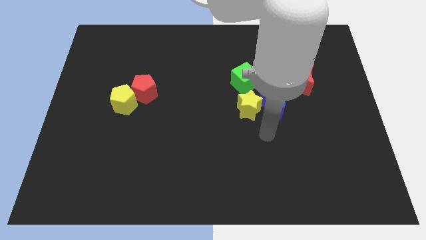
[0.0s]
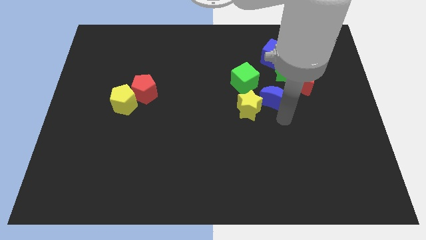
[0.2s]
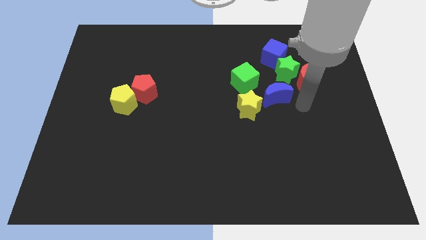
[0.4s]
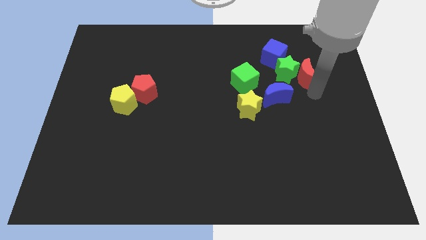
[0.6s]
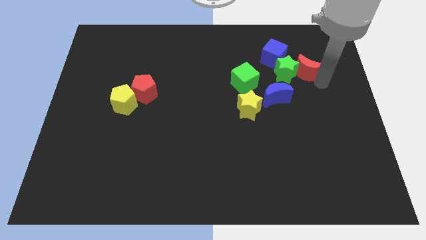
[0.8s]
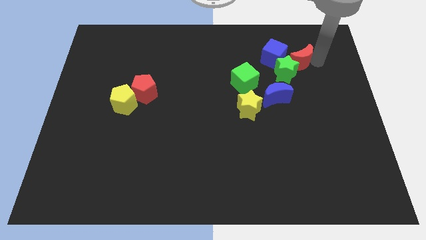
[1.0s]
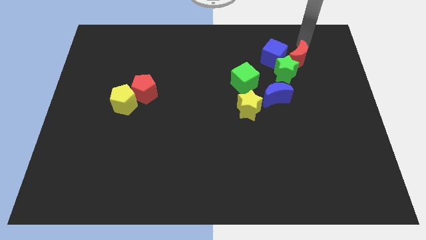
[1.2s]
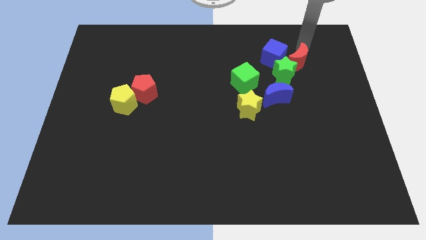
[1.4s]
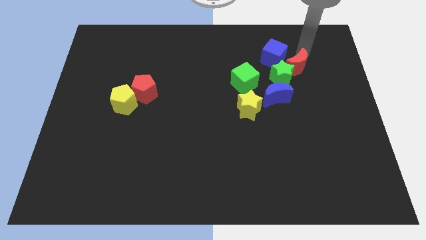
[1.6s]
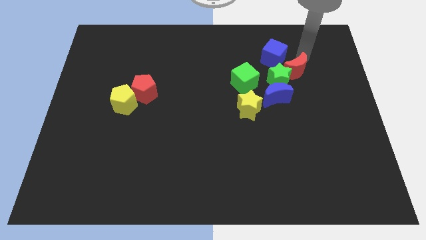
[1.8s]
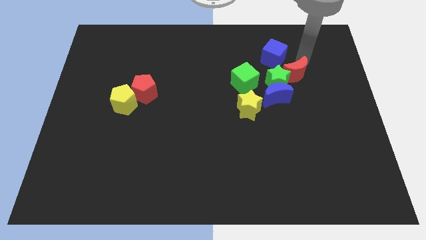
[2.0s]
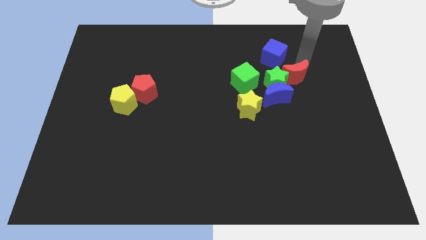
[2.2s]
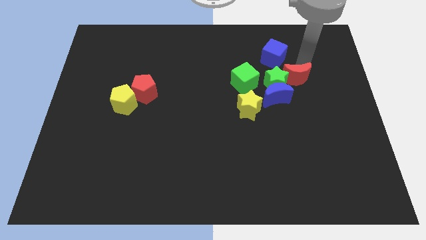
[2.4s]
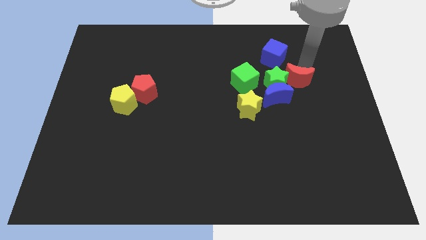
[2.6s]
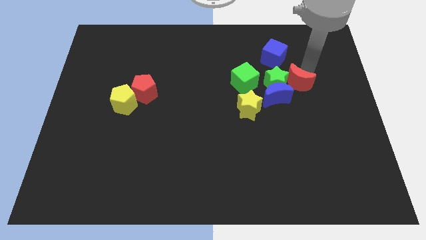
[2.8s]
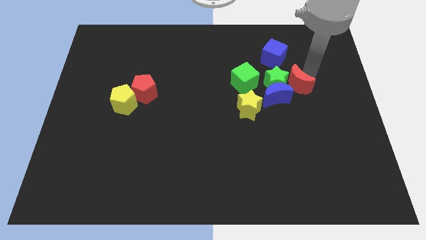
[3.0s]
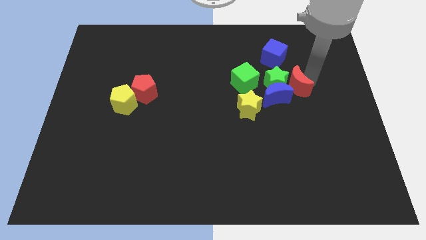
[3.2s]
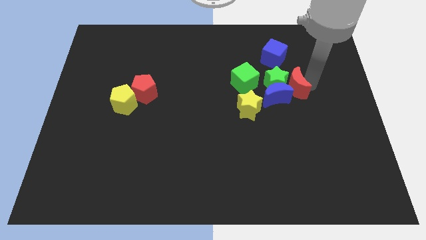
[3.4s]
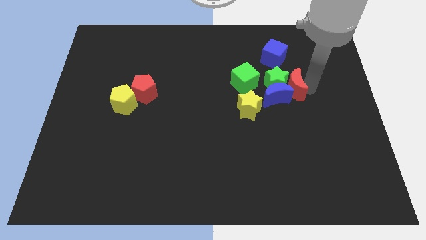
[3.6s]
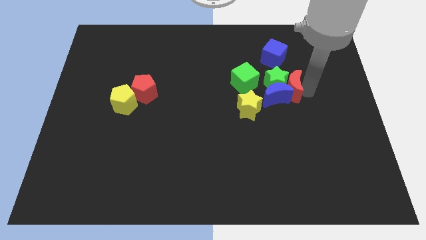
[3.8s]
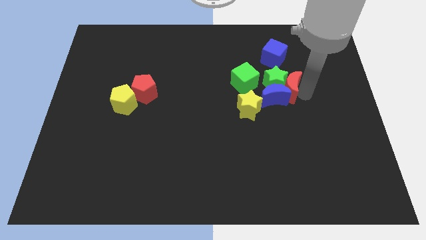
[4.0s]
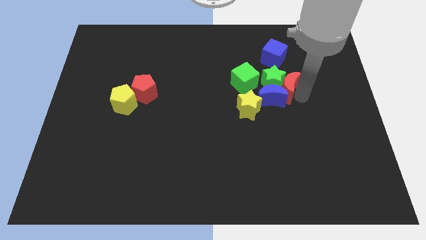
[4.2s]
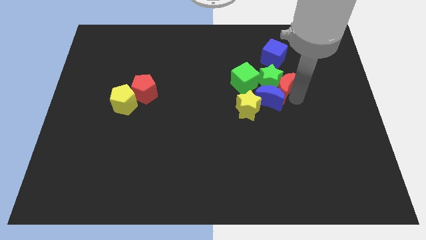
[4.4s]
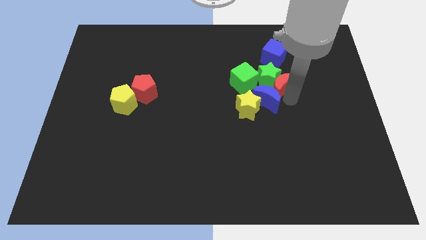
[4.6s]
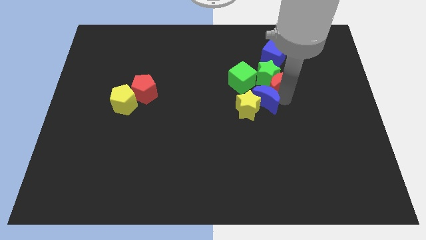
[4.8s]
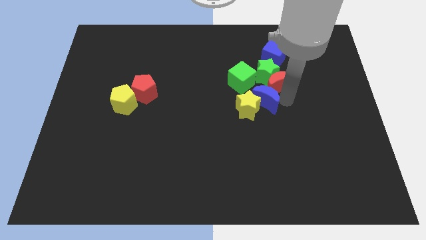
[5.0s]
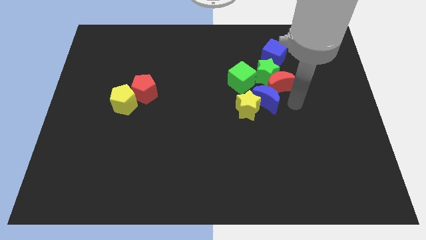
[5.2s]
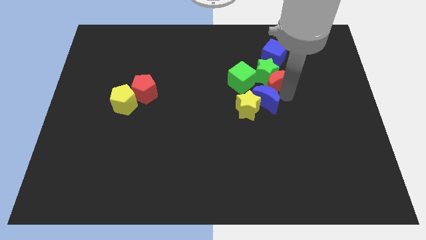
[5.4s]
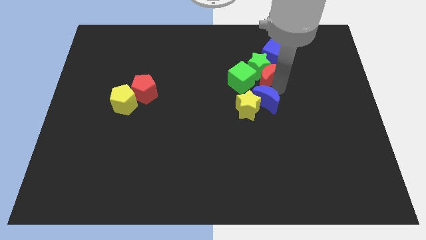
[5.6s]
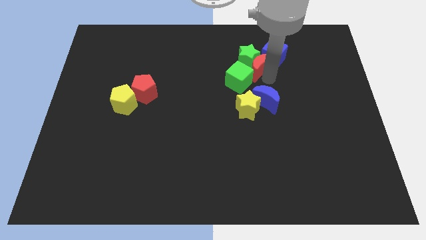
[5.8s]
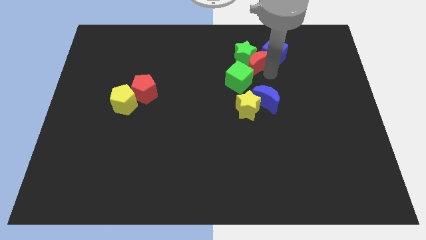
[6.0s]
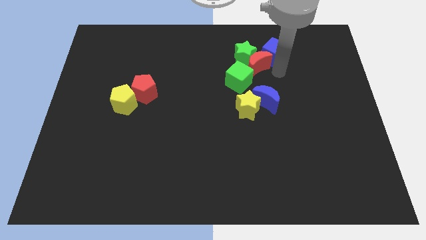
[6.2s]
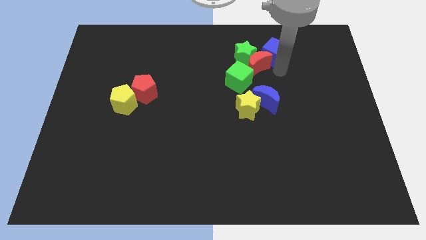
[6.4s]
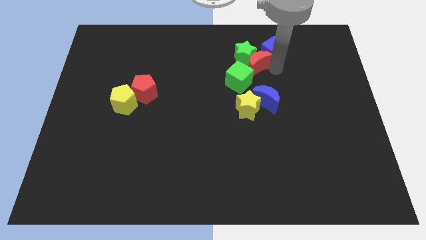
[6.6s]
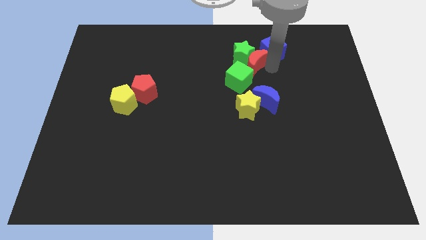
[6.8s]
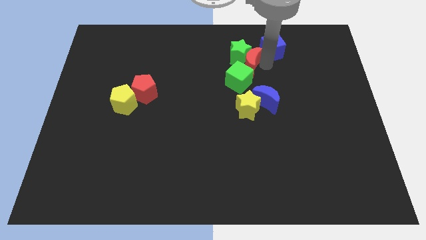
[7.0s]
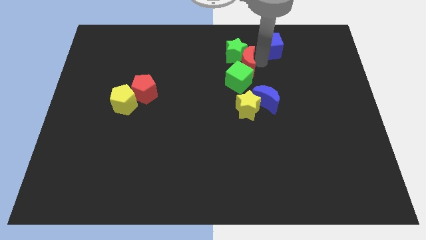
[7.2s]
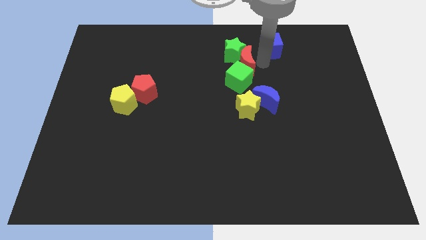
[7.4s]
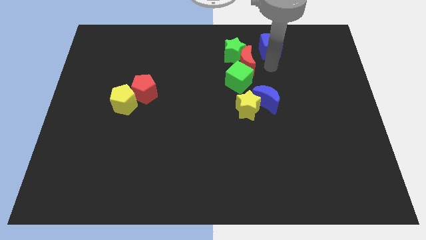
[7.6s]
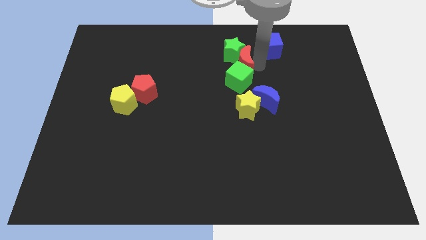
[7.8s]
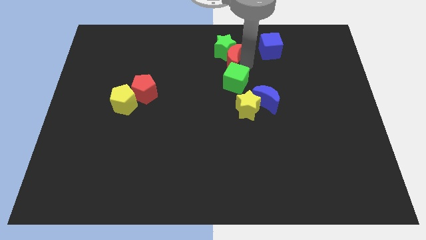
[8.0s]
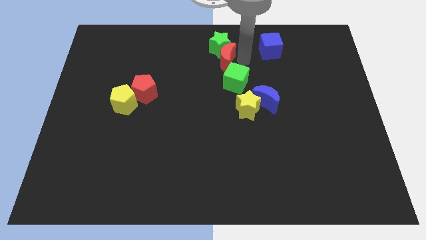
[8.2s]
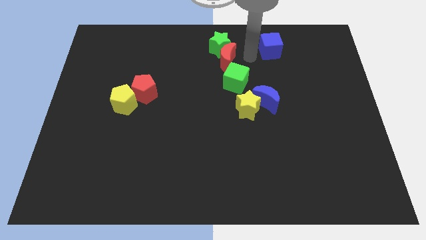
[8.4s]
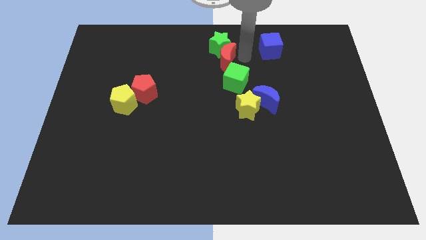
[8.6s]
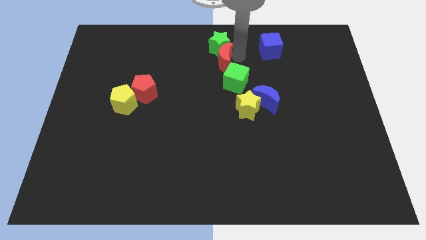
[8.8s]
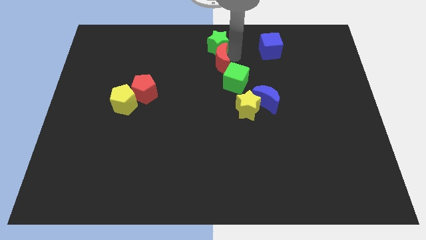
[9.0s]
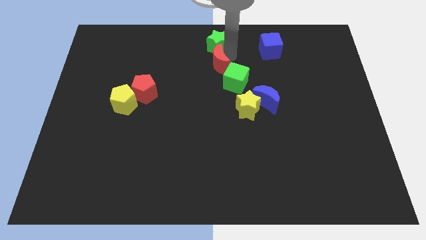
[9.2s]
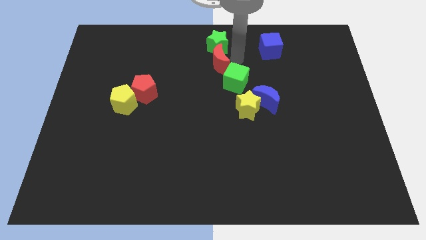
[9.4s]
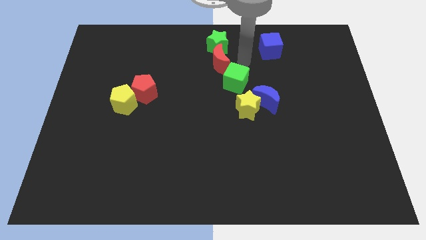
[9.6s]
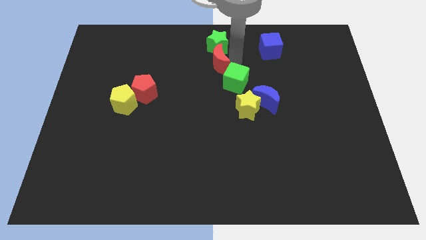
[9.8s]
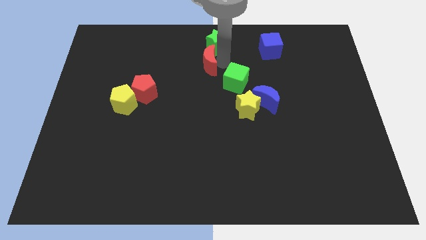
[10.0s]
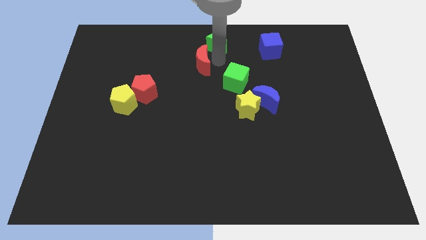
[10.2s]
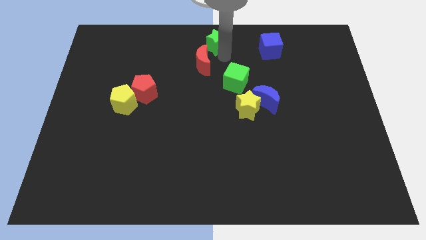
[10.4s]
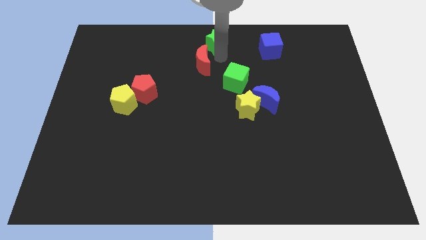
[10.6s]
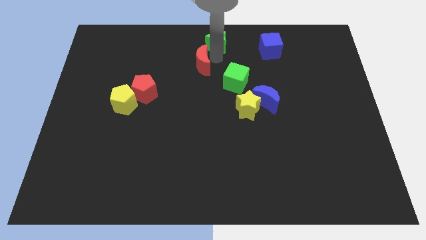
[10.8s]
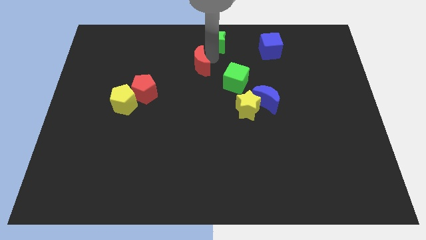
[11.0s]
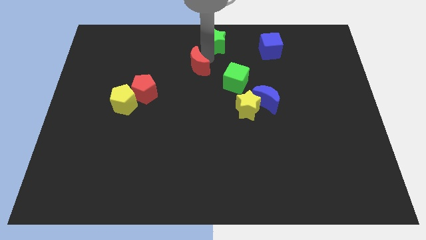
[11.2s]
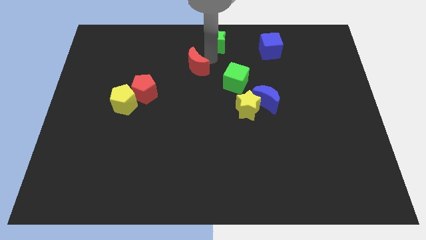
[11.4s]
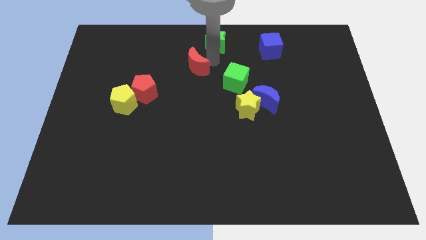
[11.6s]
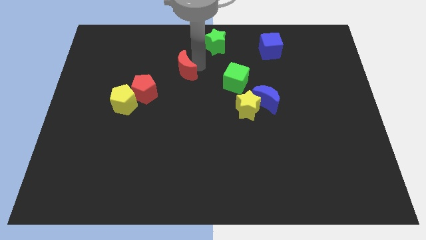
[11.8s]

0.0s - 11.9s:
move the red moon diagonally up and to the right of the red pentagon

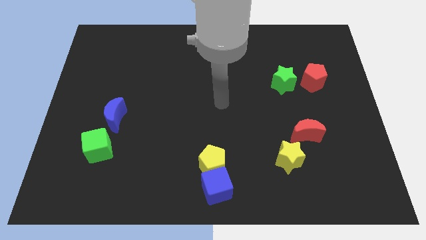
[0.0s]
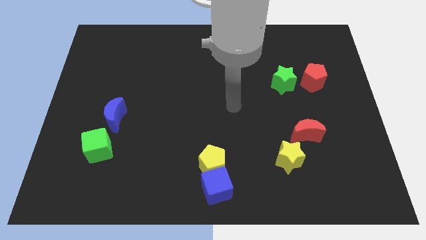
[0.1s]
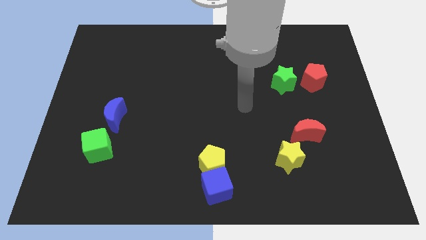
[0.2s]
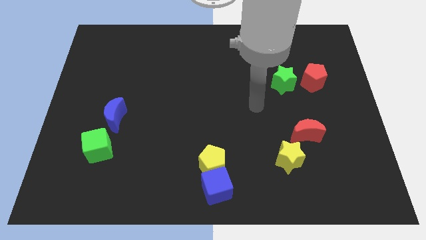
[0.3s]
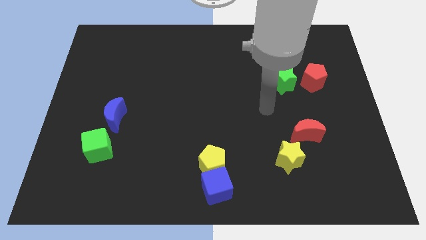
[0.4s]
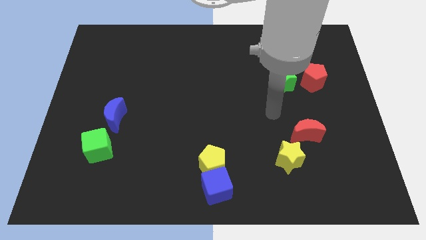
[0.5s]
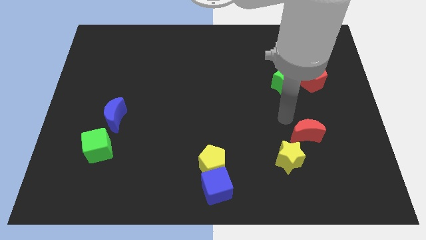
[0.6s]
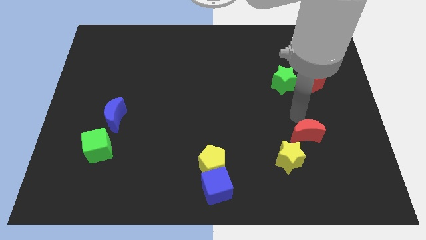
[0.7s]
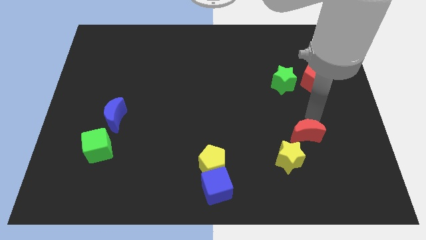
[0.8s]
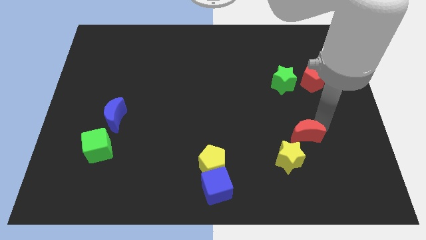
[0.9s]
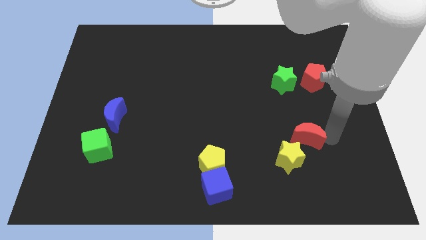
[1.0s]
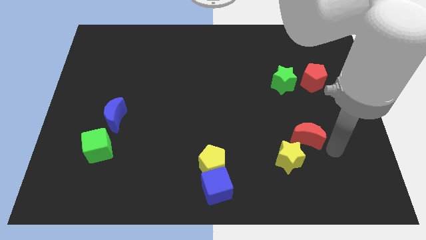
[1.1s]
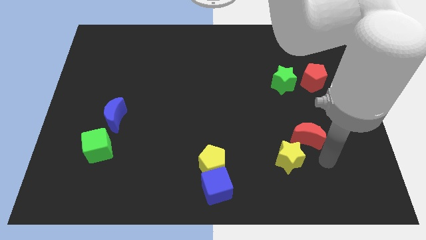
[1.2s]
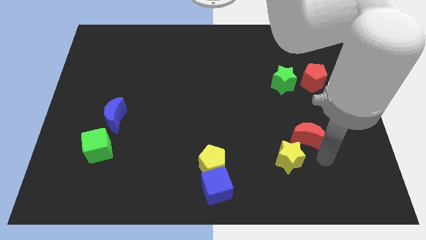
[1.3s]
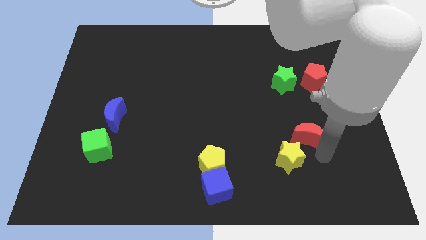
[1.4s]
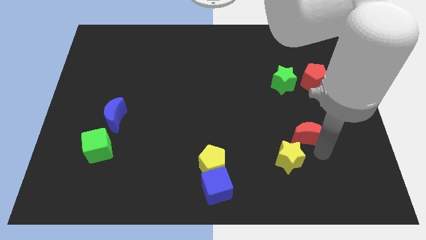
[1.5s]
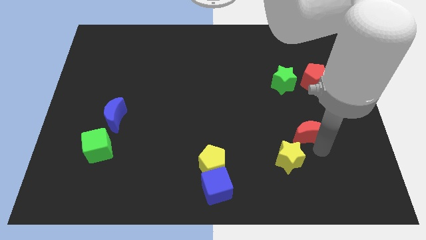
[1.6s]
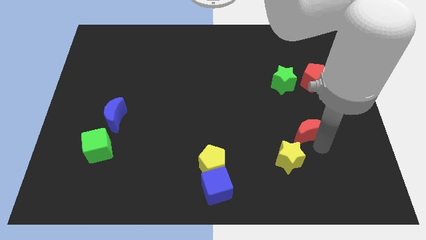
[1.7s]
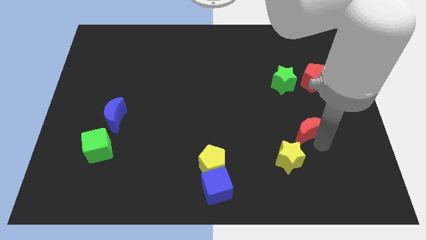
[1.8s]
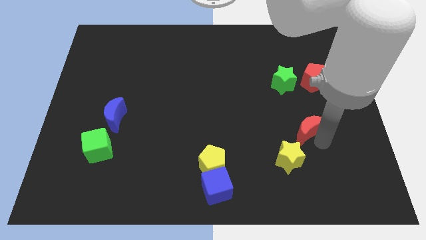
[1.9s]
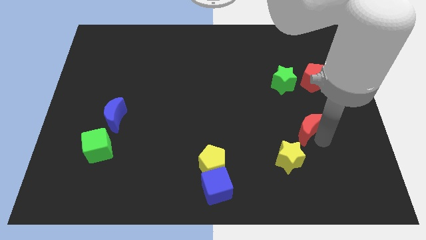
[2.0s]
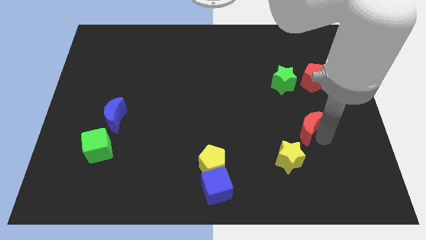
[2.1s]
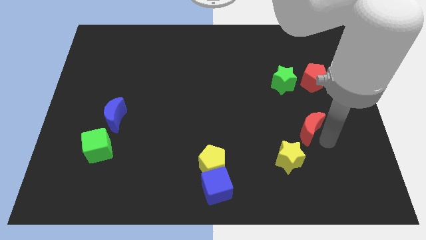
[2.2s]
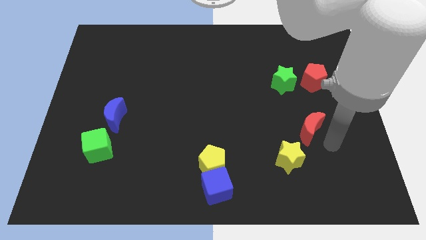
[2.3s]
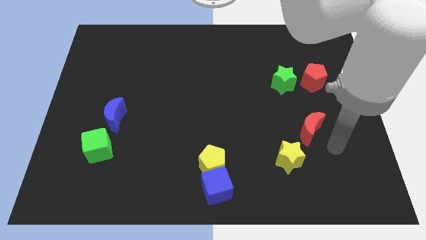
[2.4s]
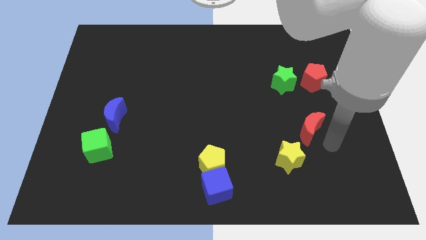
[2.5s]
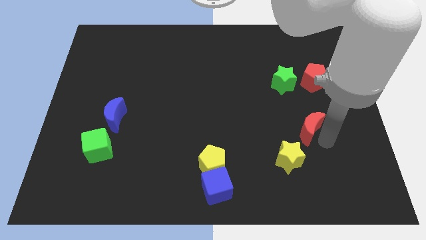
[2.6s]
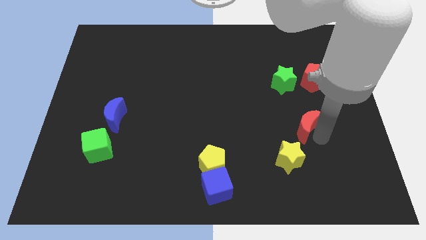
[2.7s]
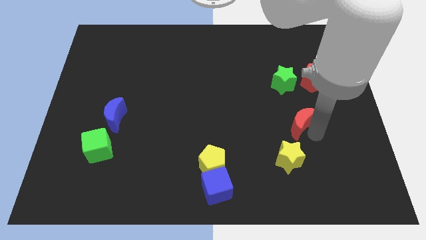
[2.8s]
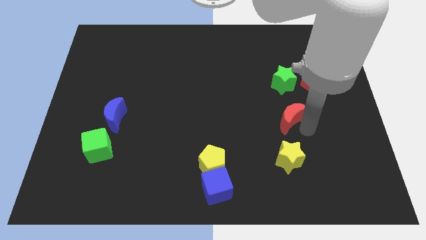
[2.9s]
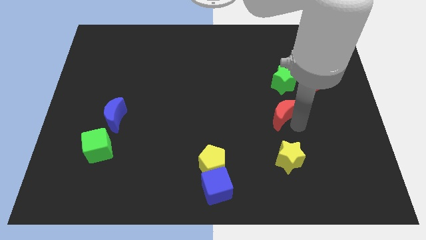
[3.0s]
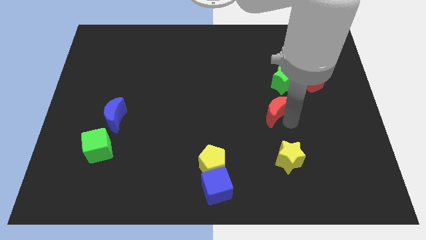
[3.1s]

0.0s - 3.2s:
move the red moon to the bottom left side of the green star
